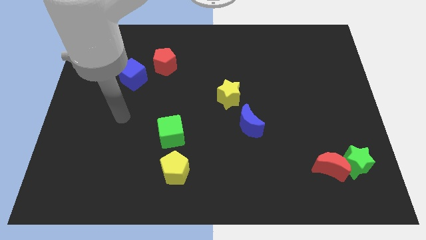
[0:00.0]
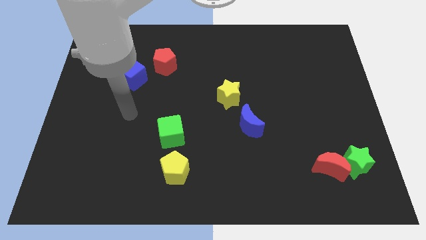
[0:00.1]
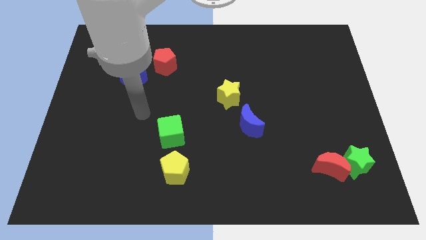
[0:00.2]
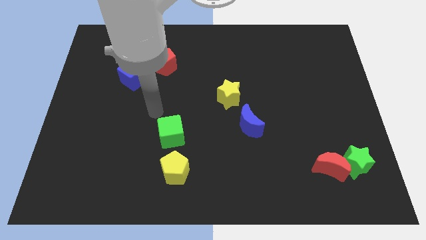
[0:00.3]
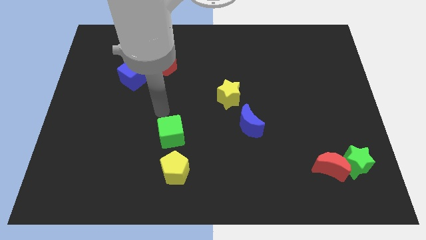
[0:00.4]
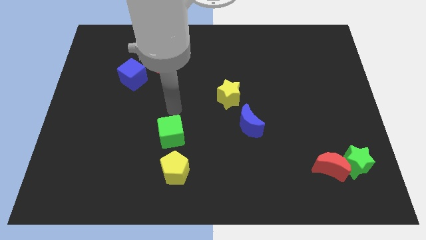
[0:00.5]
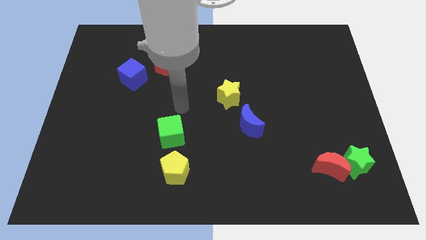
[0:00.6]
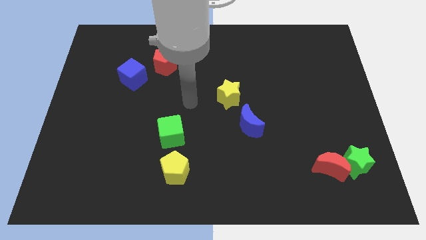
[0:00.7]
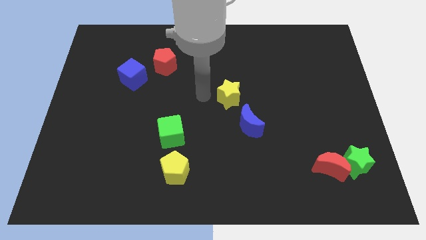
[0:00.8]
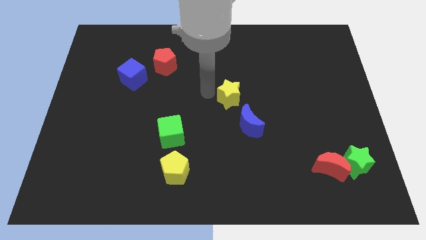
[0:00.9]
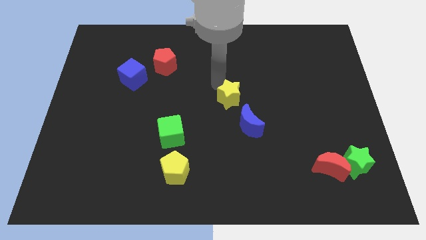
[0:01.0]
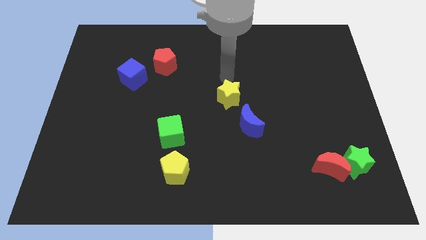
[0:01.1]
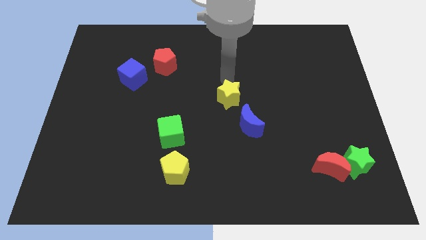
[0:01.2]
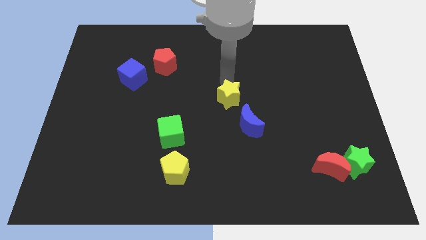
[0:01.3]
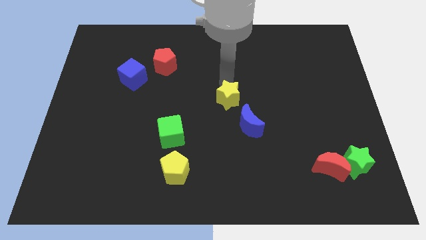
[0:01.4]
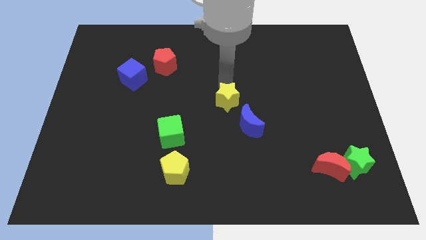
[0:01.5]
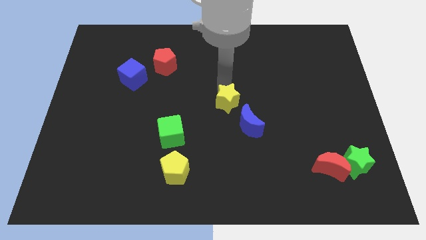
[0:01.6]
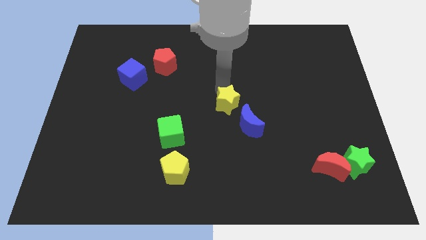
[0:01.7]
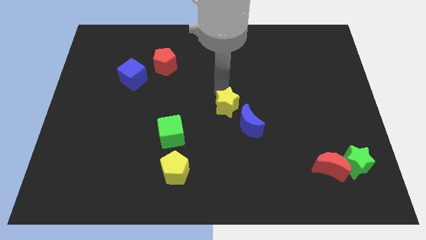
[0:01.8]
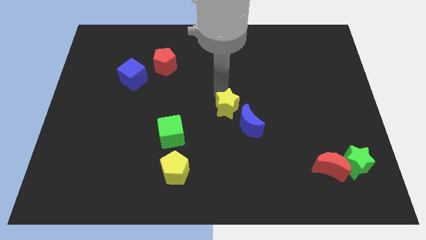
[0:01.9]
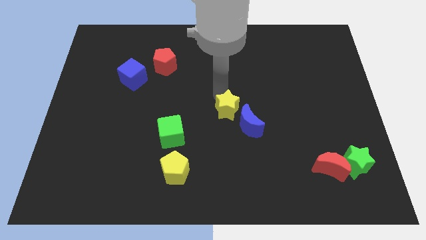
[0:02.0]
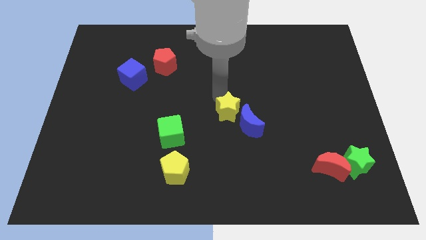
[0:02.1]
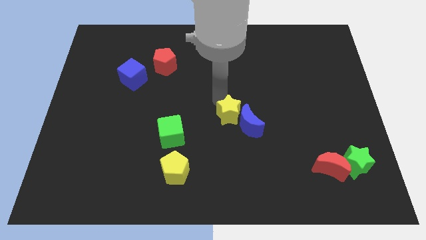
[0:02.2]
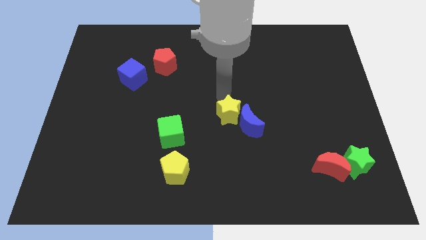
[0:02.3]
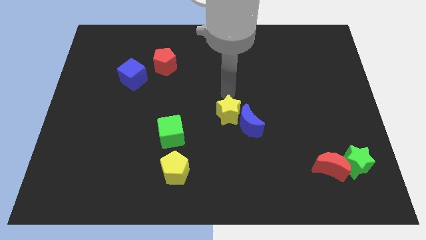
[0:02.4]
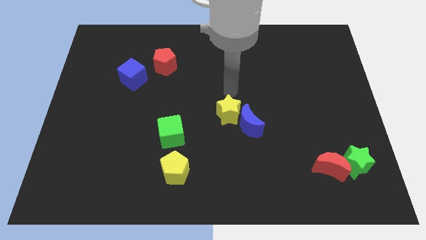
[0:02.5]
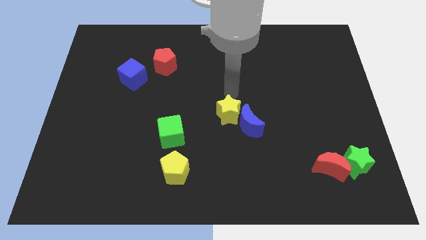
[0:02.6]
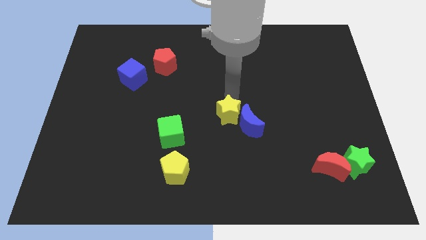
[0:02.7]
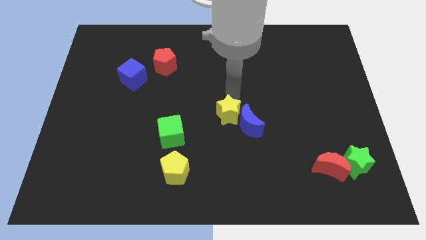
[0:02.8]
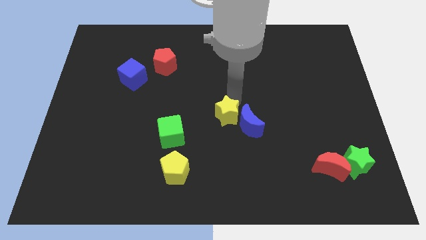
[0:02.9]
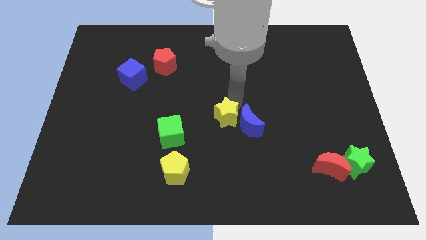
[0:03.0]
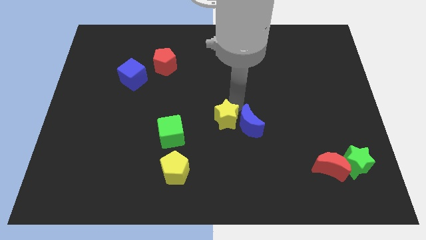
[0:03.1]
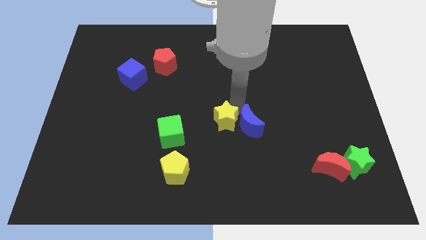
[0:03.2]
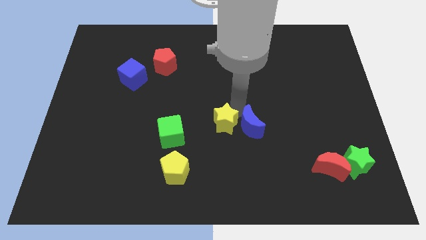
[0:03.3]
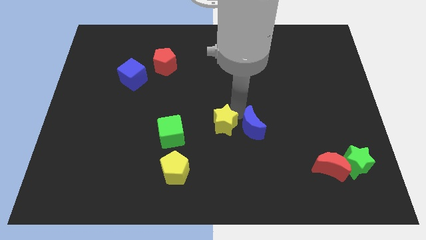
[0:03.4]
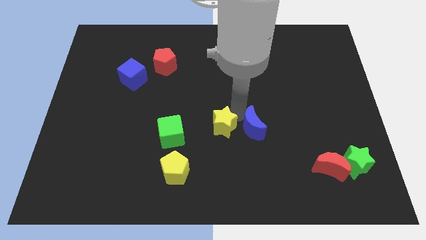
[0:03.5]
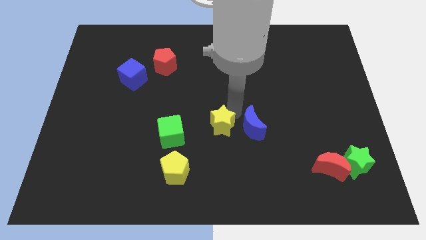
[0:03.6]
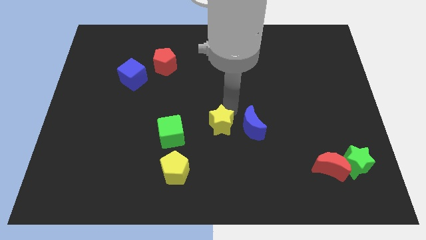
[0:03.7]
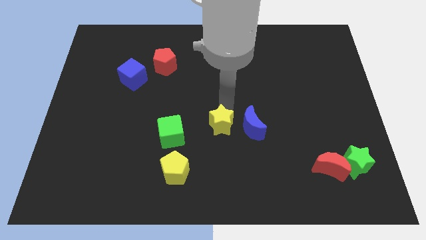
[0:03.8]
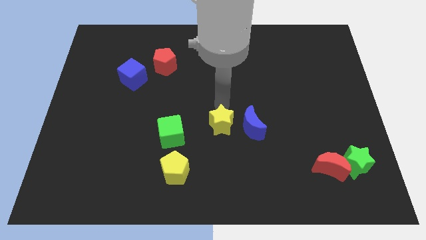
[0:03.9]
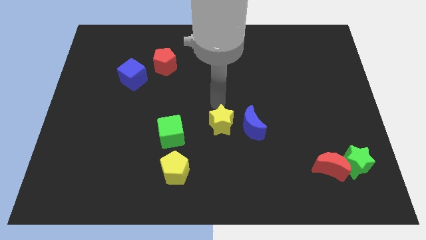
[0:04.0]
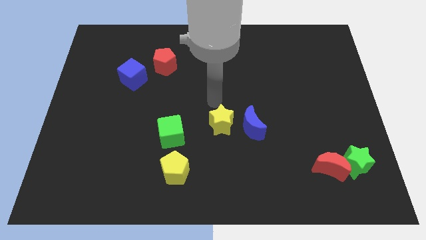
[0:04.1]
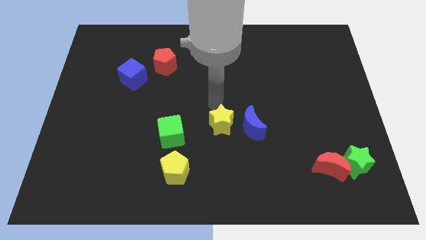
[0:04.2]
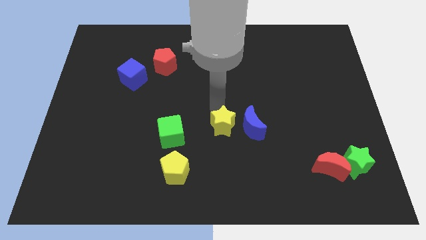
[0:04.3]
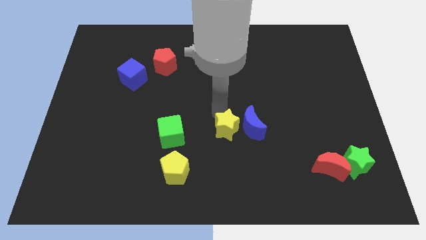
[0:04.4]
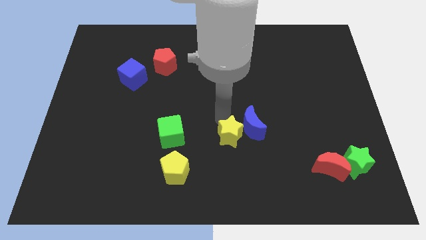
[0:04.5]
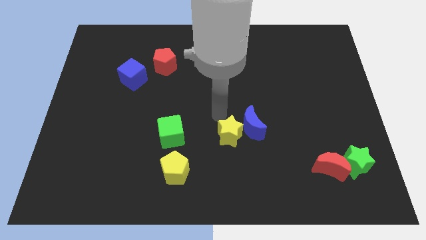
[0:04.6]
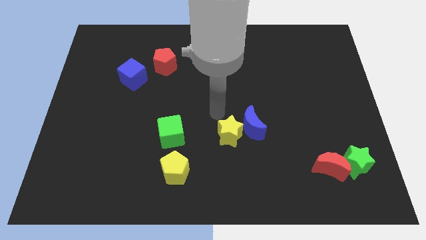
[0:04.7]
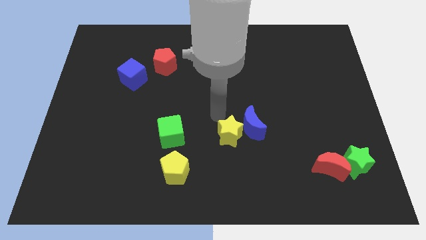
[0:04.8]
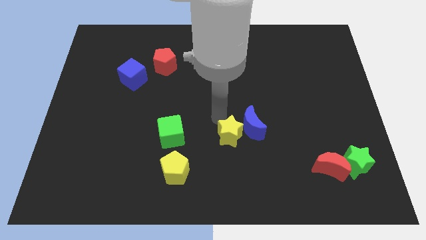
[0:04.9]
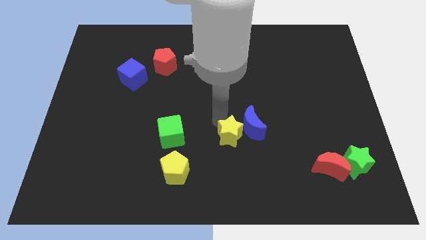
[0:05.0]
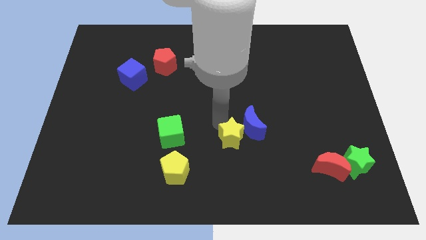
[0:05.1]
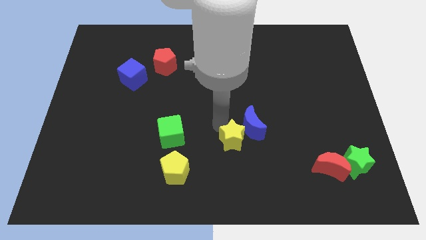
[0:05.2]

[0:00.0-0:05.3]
put the yellow star below the blue moon

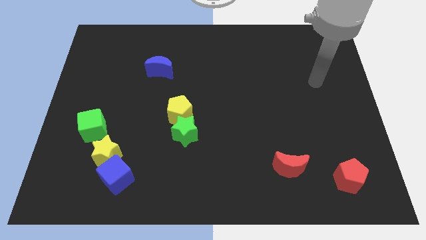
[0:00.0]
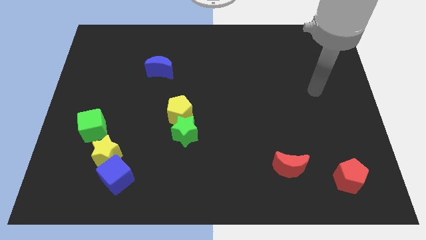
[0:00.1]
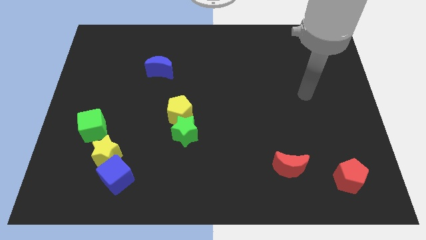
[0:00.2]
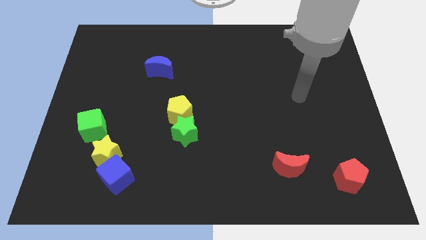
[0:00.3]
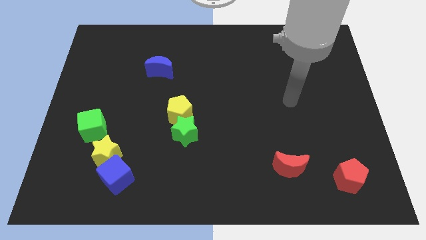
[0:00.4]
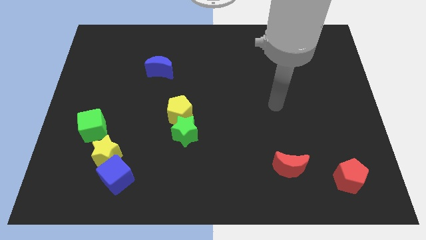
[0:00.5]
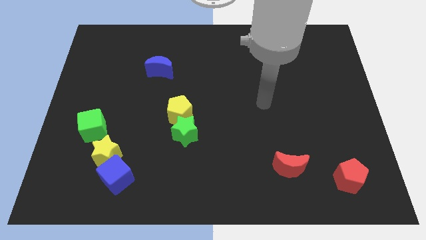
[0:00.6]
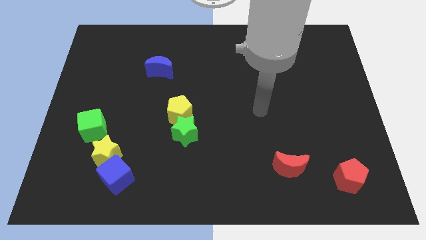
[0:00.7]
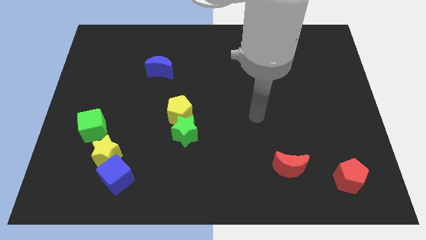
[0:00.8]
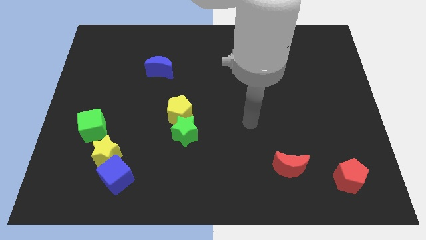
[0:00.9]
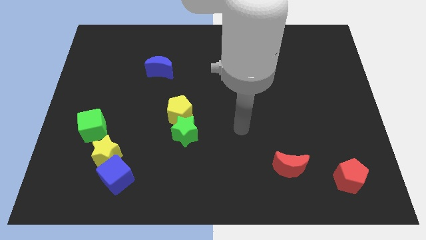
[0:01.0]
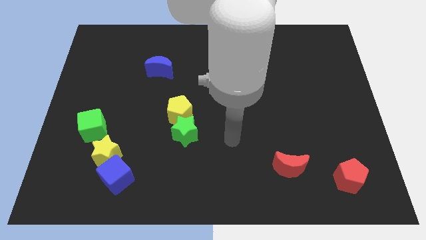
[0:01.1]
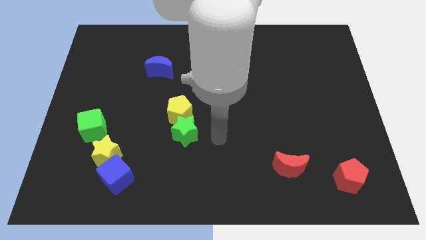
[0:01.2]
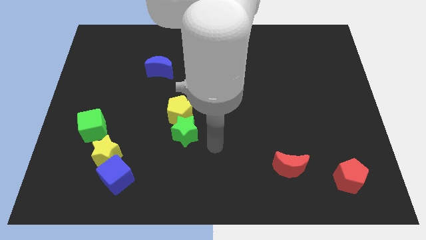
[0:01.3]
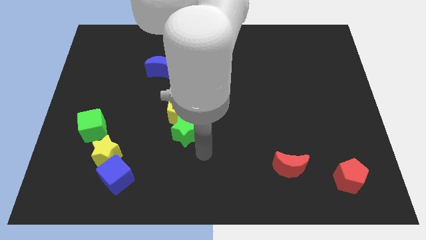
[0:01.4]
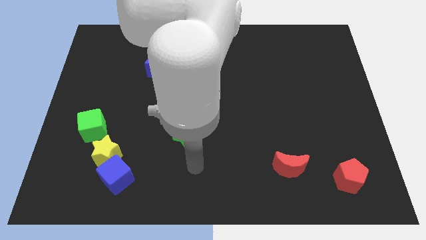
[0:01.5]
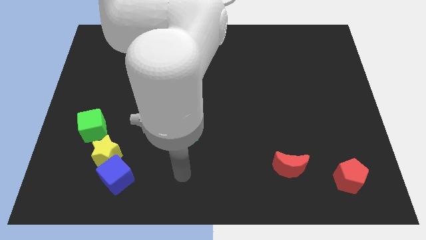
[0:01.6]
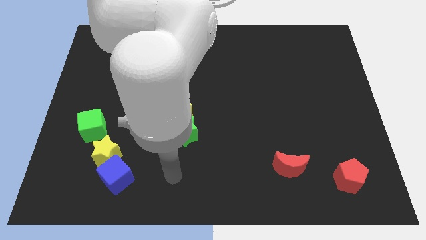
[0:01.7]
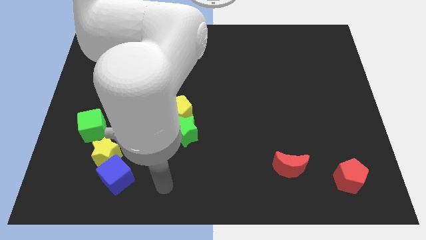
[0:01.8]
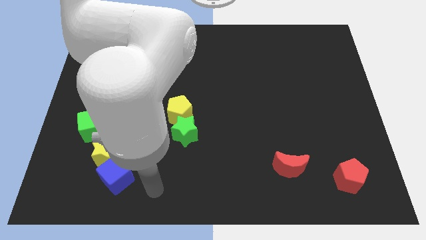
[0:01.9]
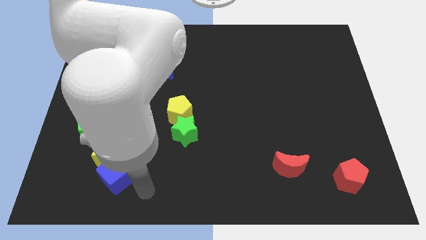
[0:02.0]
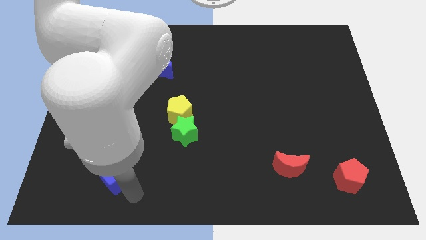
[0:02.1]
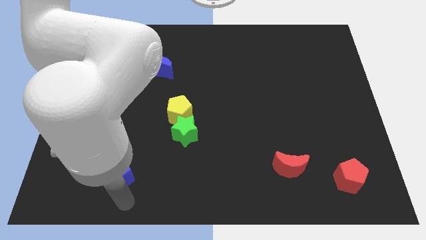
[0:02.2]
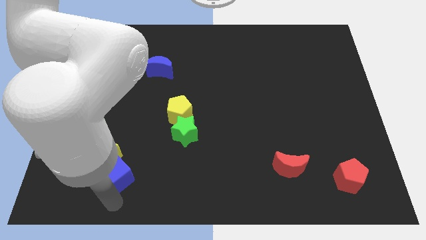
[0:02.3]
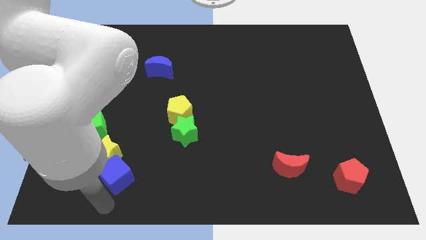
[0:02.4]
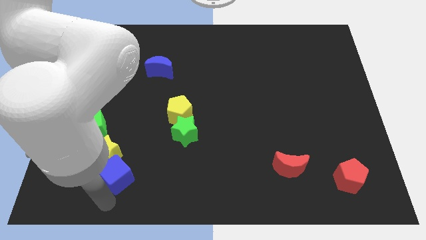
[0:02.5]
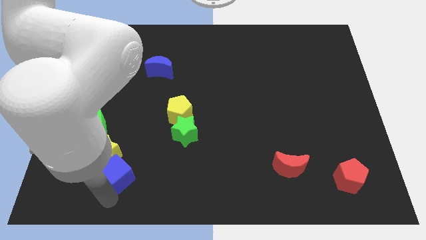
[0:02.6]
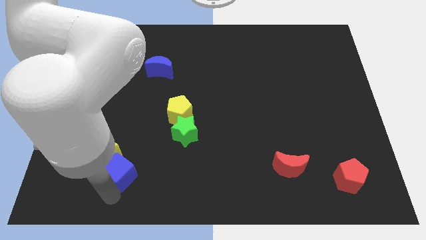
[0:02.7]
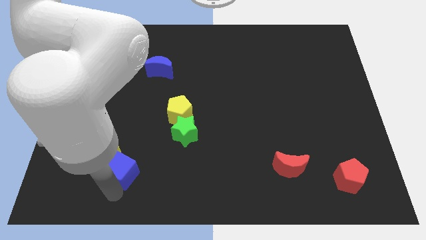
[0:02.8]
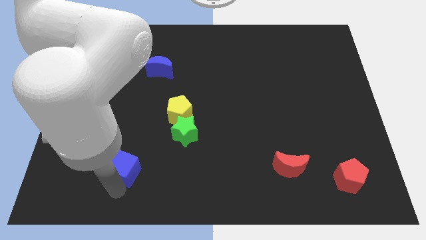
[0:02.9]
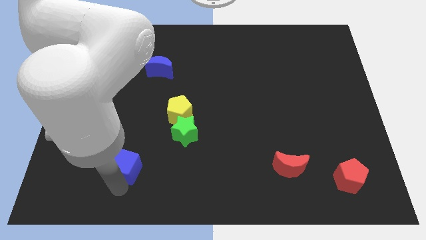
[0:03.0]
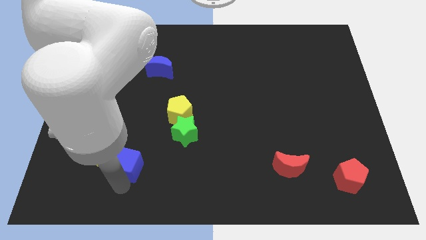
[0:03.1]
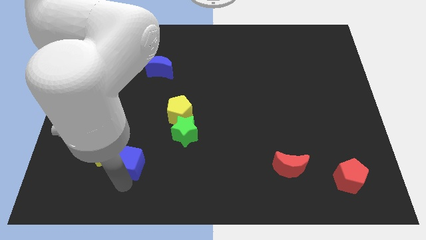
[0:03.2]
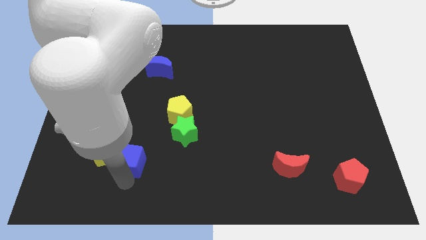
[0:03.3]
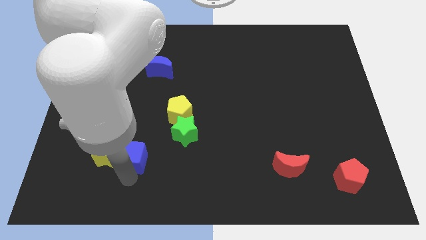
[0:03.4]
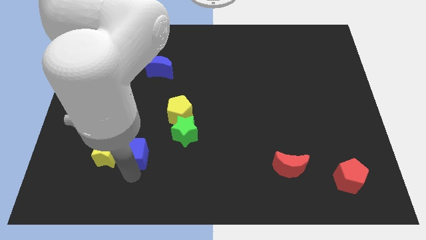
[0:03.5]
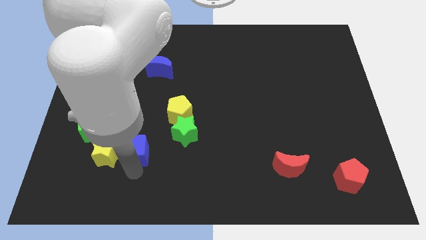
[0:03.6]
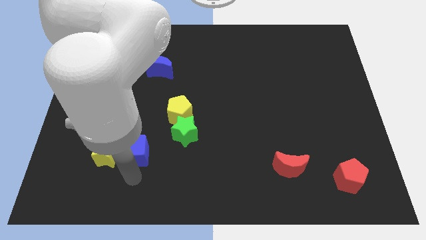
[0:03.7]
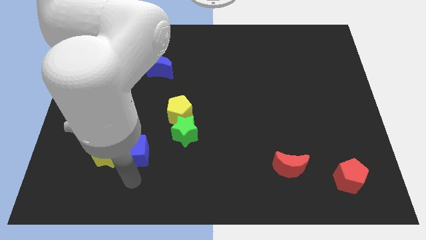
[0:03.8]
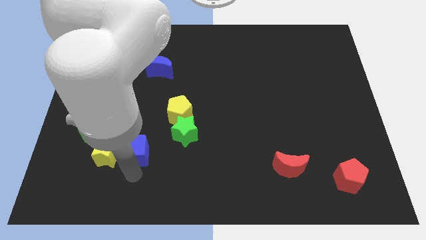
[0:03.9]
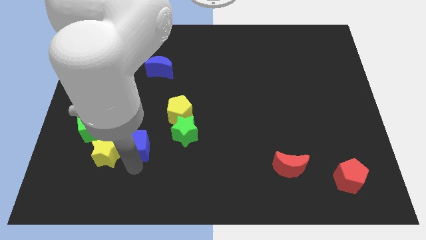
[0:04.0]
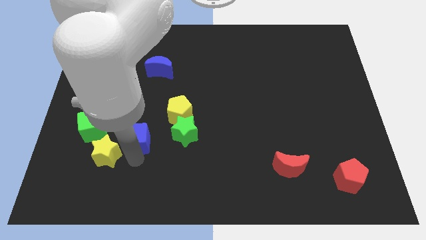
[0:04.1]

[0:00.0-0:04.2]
move the blue cube just right of the green cube
